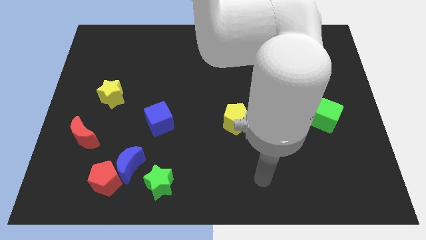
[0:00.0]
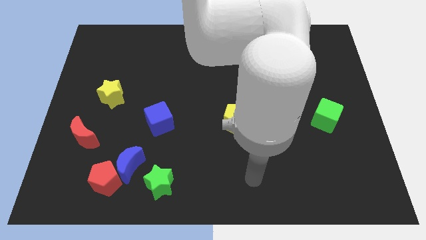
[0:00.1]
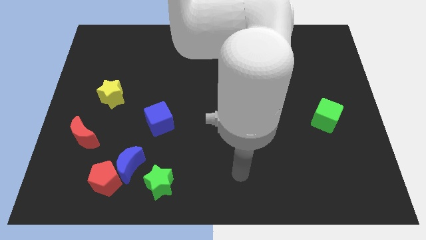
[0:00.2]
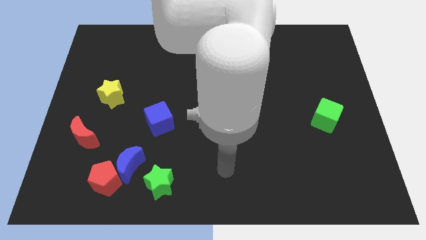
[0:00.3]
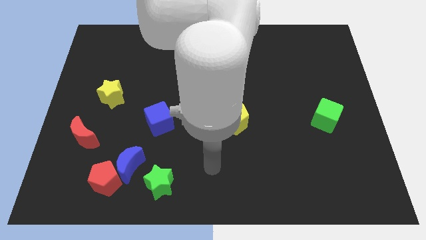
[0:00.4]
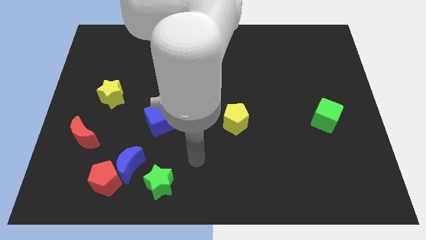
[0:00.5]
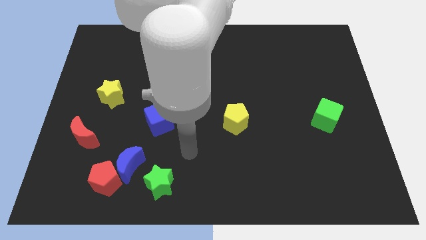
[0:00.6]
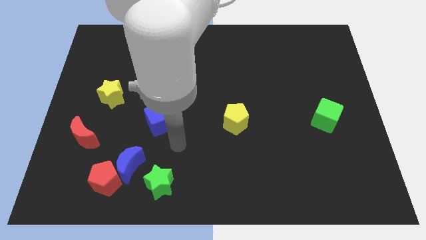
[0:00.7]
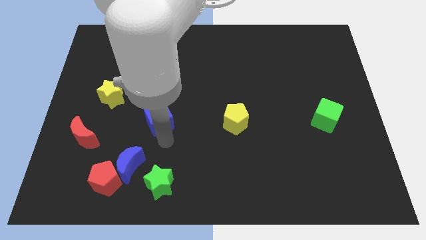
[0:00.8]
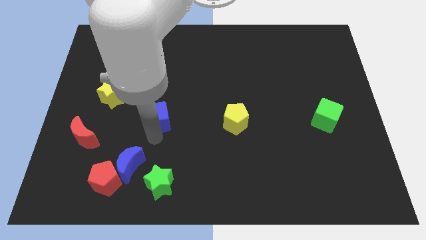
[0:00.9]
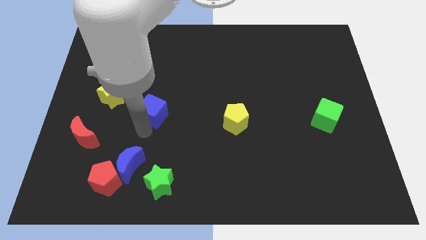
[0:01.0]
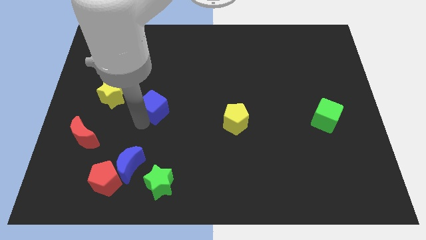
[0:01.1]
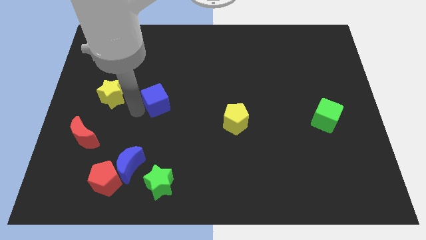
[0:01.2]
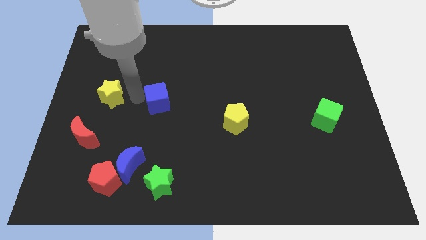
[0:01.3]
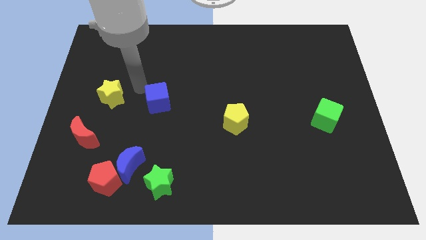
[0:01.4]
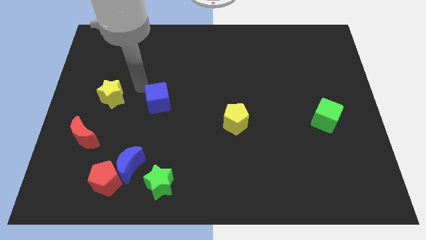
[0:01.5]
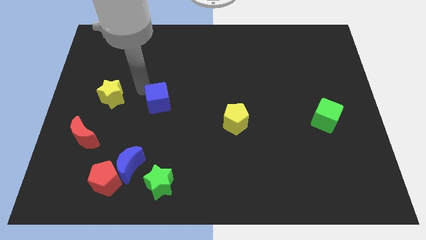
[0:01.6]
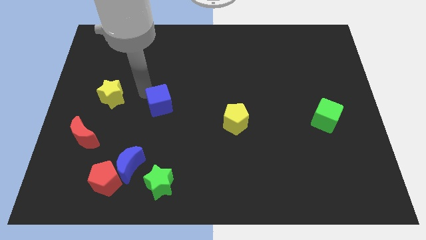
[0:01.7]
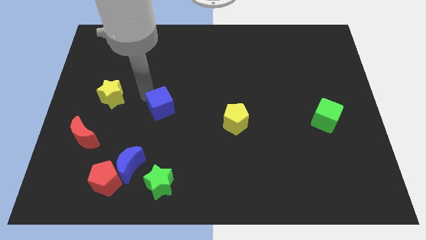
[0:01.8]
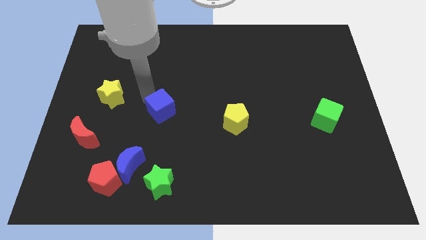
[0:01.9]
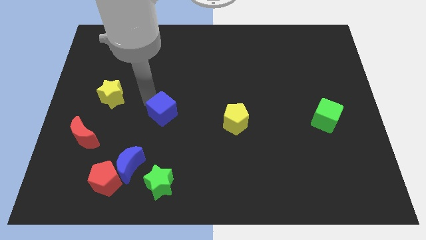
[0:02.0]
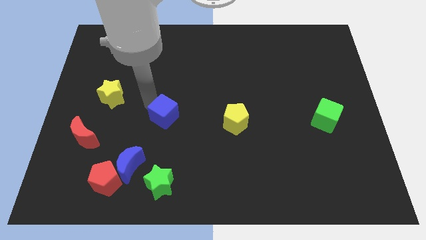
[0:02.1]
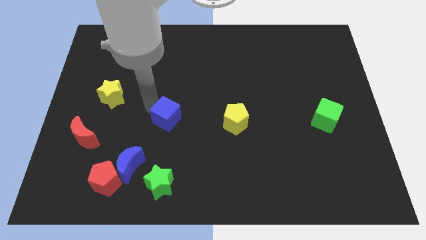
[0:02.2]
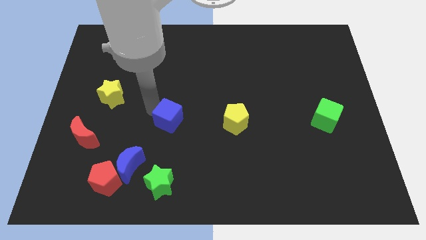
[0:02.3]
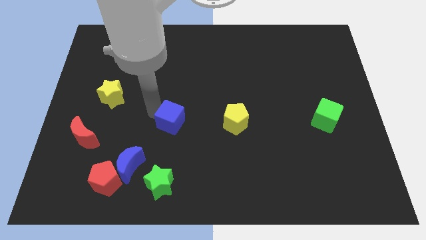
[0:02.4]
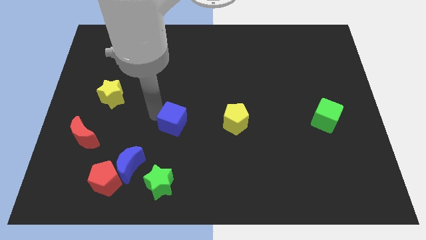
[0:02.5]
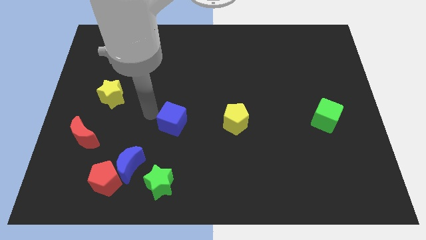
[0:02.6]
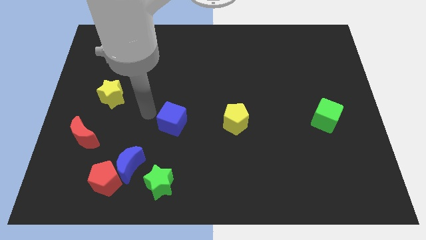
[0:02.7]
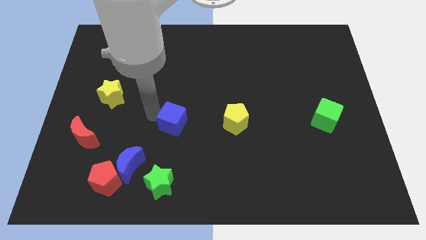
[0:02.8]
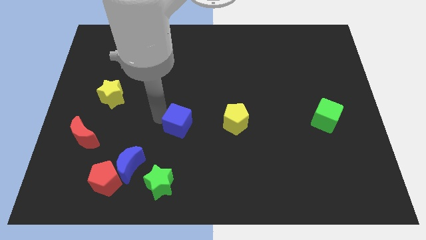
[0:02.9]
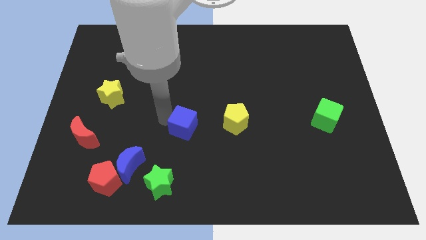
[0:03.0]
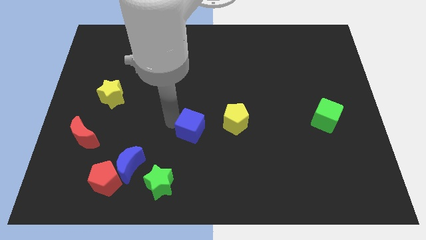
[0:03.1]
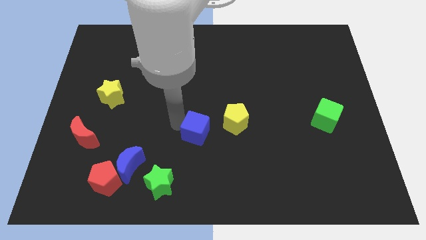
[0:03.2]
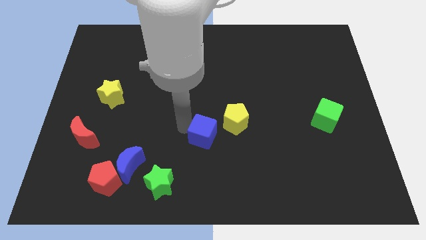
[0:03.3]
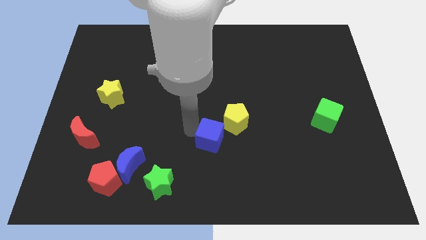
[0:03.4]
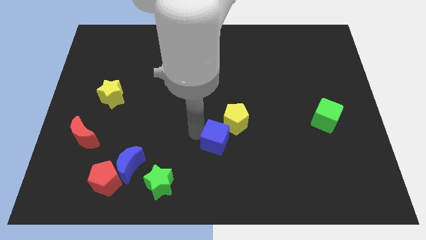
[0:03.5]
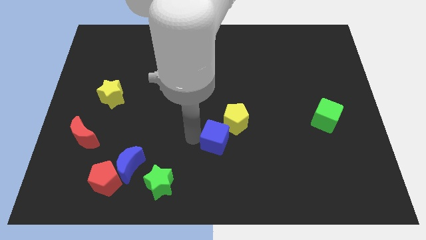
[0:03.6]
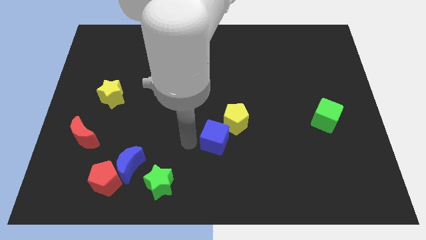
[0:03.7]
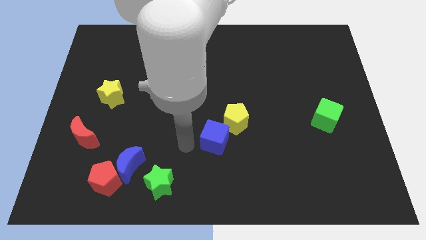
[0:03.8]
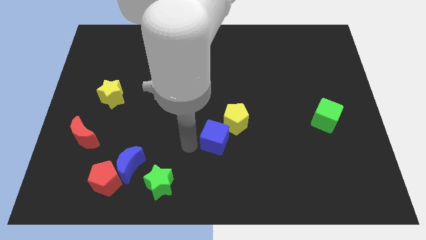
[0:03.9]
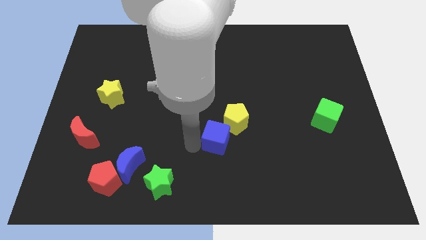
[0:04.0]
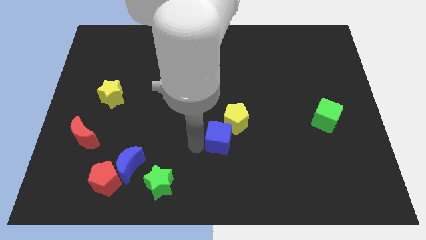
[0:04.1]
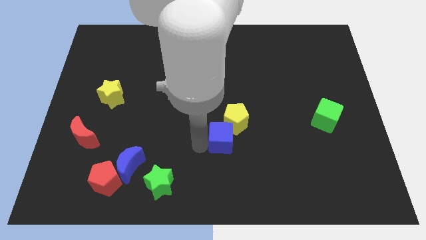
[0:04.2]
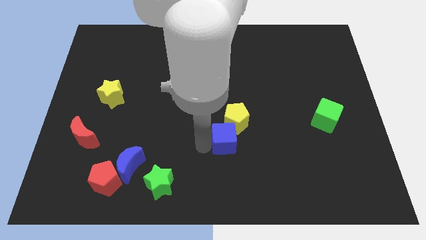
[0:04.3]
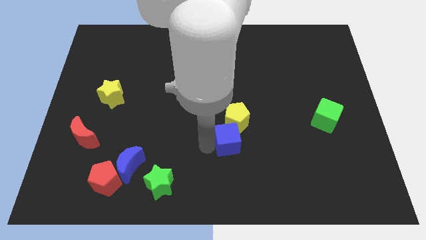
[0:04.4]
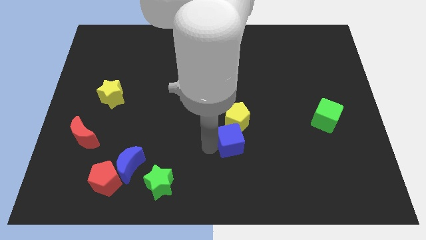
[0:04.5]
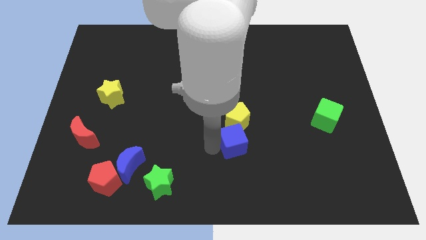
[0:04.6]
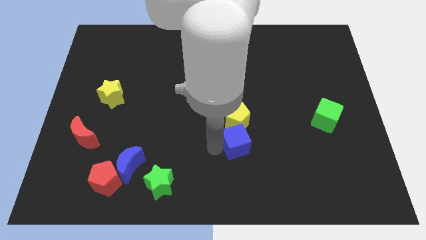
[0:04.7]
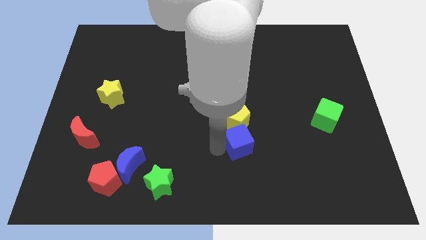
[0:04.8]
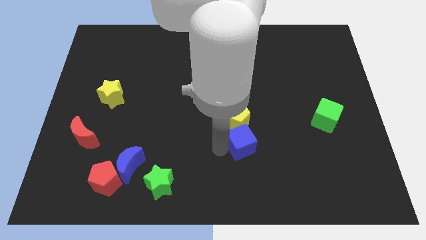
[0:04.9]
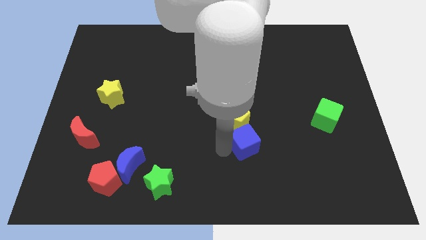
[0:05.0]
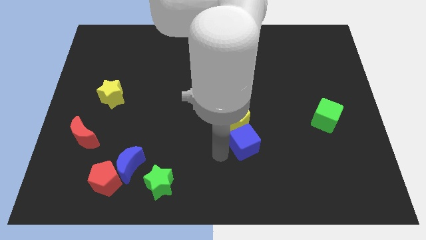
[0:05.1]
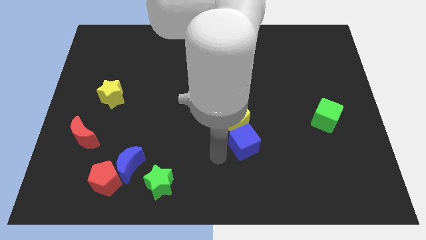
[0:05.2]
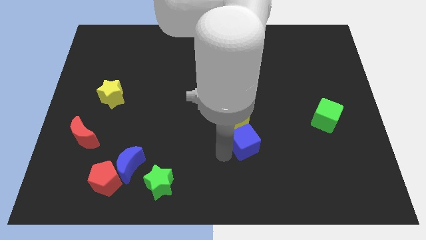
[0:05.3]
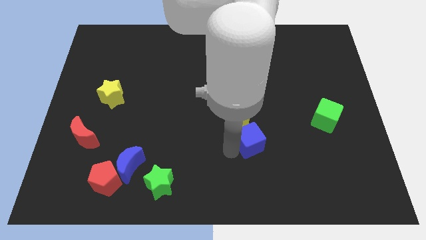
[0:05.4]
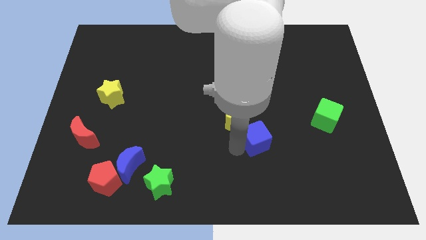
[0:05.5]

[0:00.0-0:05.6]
slide the blue cube to the right

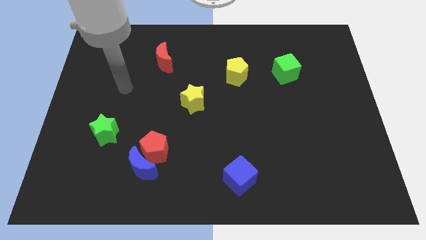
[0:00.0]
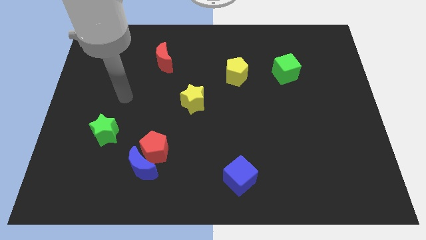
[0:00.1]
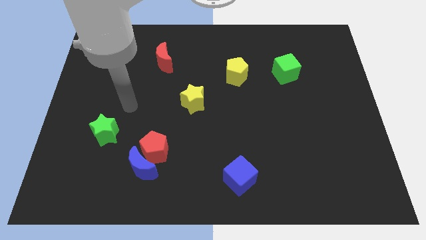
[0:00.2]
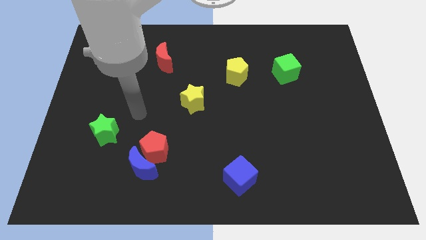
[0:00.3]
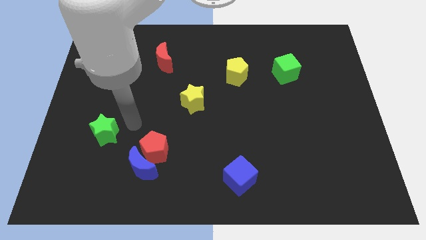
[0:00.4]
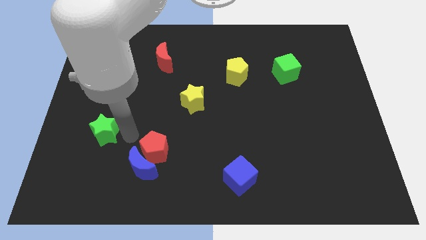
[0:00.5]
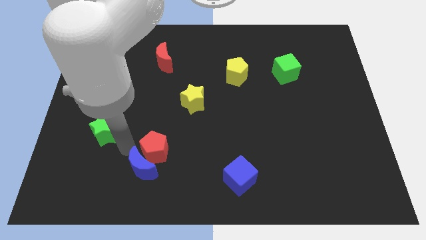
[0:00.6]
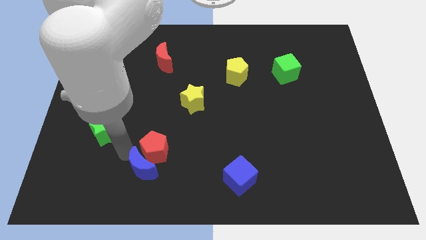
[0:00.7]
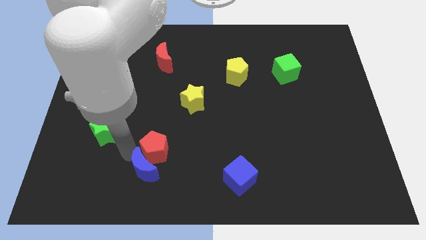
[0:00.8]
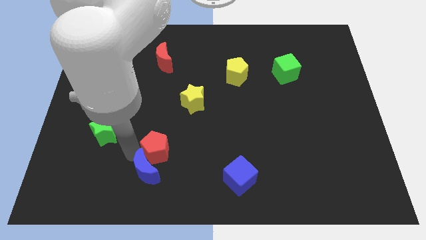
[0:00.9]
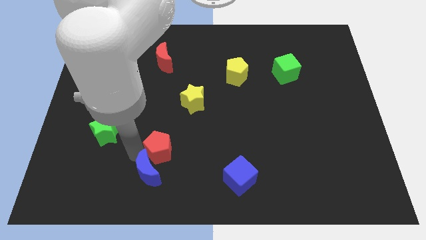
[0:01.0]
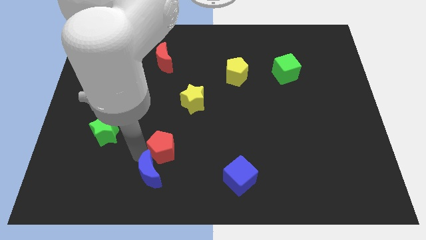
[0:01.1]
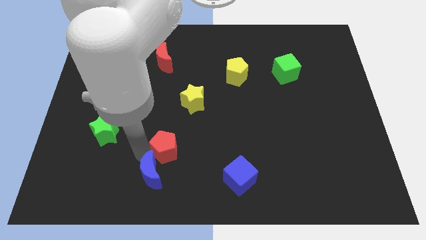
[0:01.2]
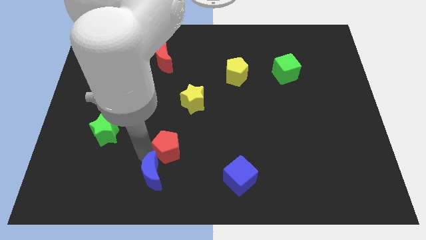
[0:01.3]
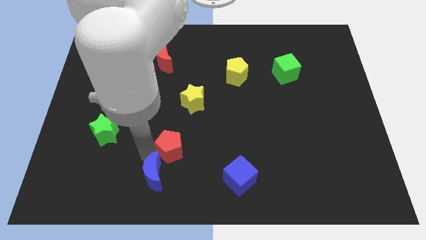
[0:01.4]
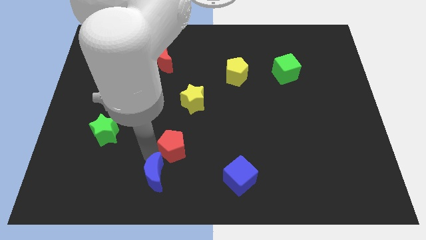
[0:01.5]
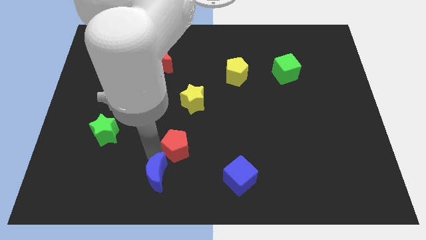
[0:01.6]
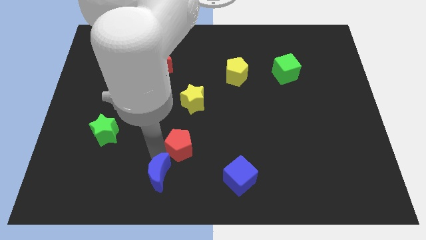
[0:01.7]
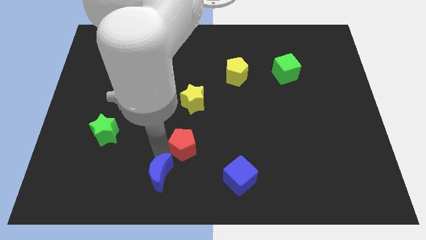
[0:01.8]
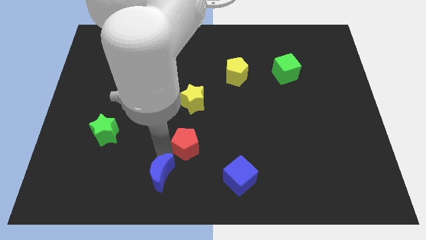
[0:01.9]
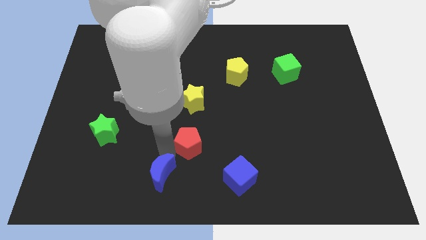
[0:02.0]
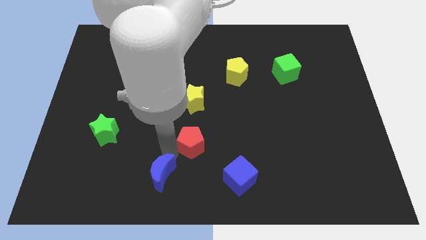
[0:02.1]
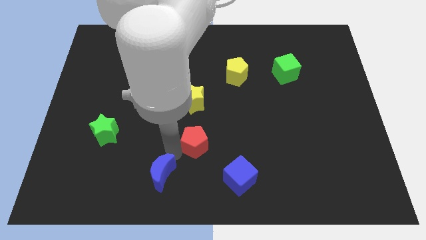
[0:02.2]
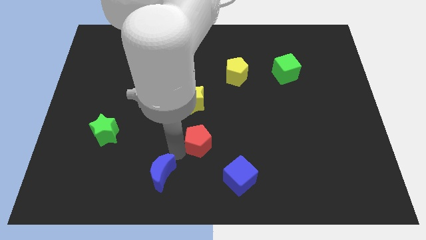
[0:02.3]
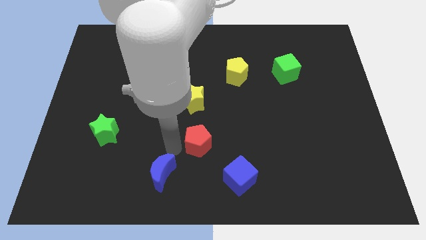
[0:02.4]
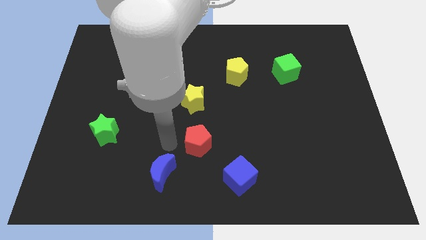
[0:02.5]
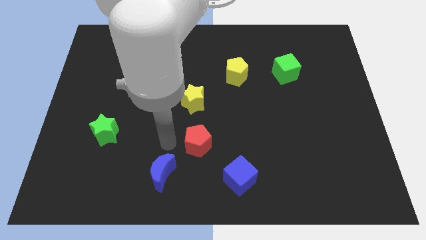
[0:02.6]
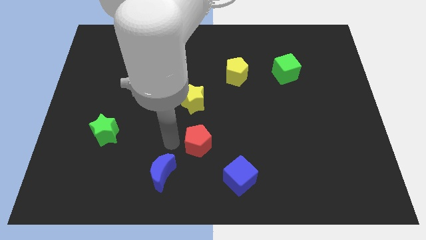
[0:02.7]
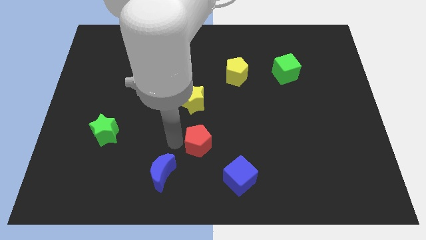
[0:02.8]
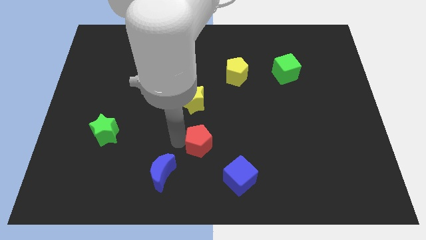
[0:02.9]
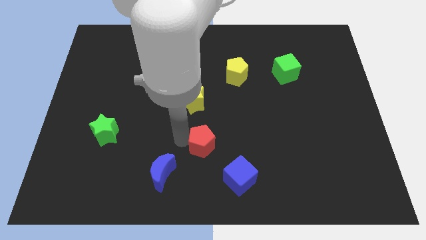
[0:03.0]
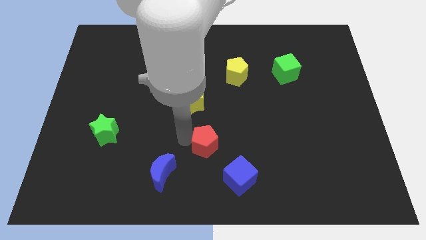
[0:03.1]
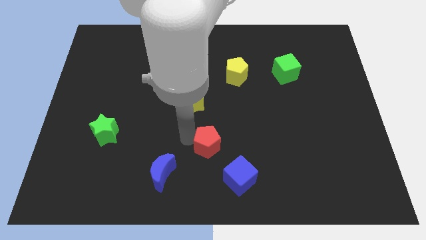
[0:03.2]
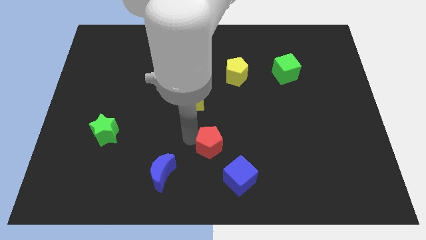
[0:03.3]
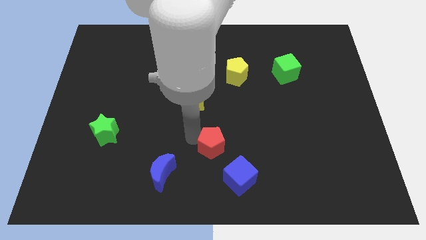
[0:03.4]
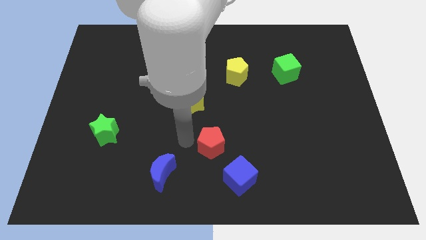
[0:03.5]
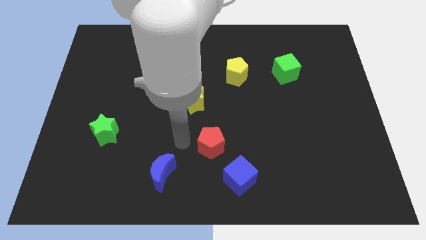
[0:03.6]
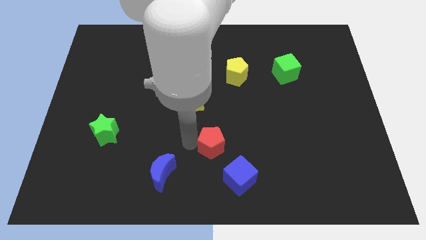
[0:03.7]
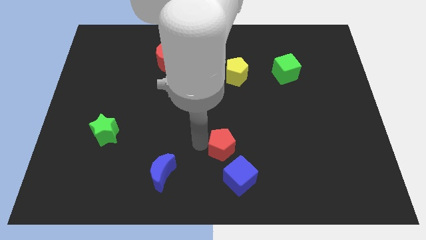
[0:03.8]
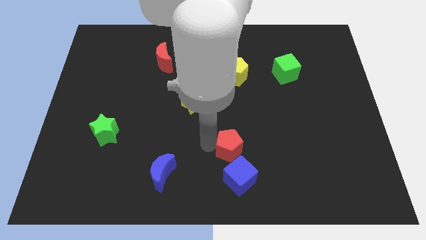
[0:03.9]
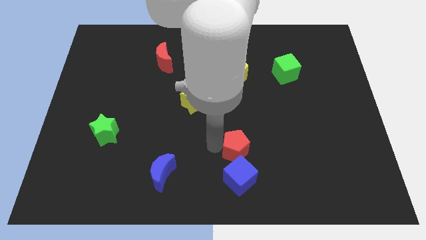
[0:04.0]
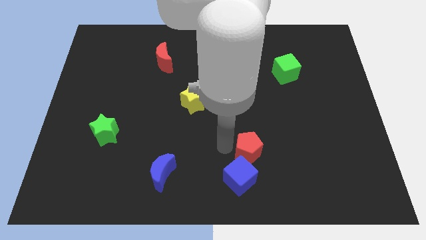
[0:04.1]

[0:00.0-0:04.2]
push the red pentagon to the right
